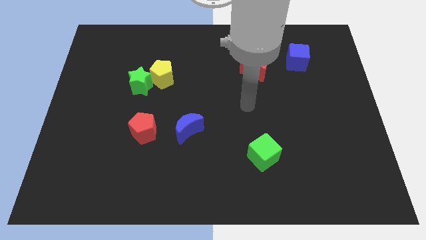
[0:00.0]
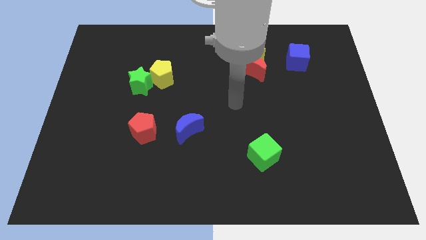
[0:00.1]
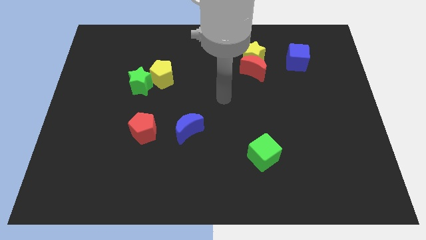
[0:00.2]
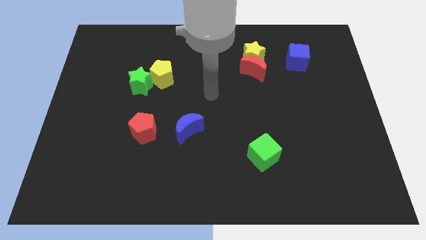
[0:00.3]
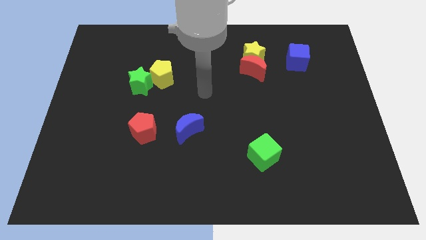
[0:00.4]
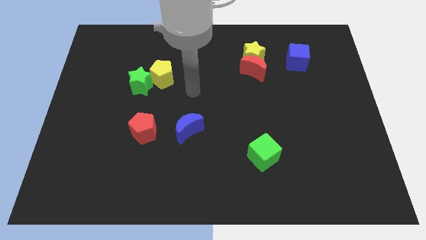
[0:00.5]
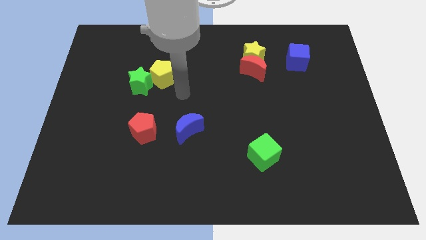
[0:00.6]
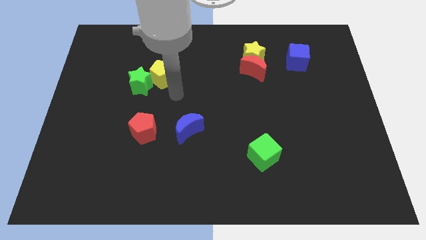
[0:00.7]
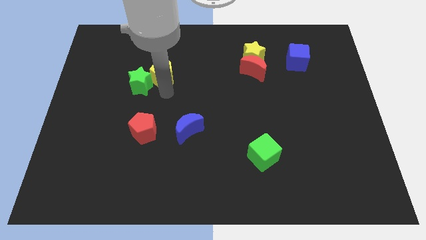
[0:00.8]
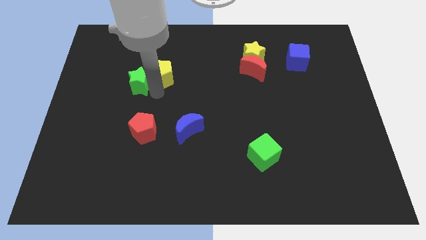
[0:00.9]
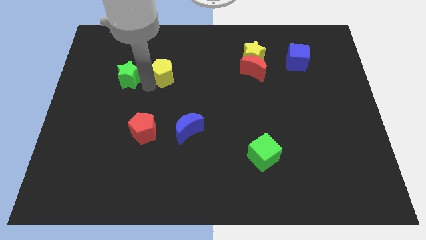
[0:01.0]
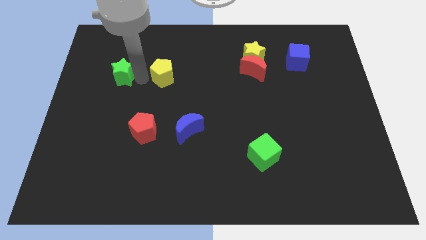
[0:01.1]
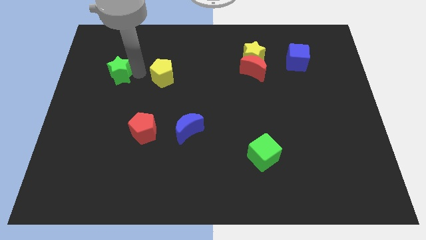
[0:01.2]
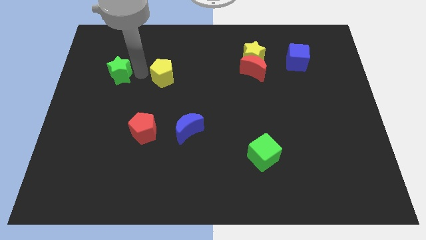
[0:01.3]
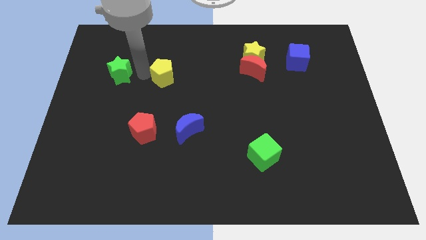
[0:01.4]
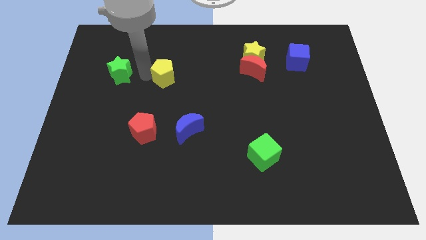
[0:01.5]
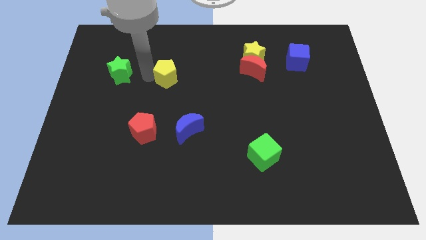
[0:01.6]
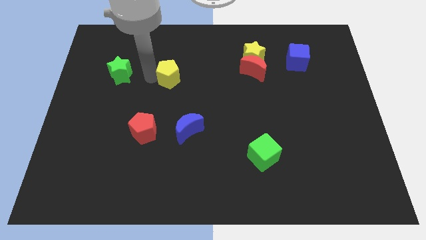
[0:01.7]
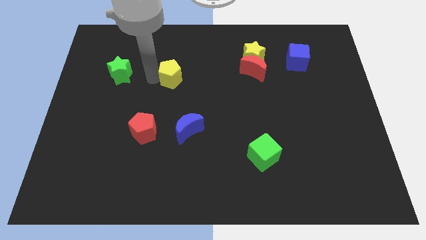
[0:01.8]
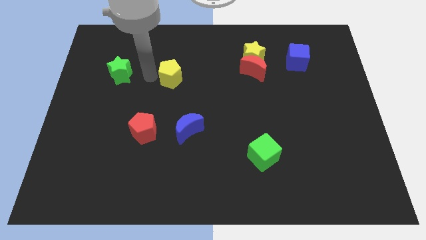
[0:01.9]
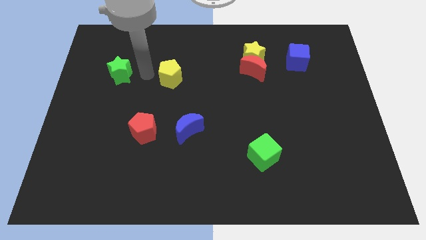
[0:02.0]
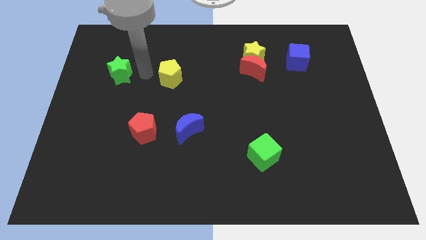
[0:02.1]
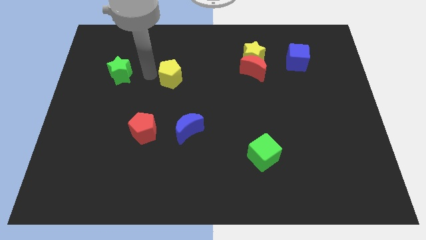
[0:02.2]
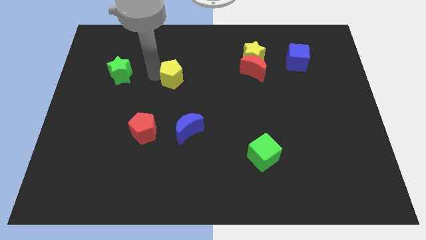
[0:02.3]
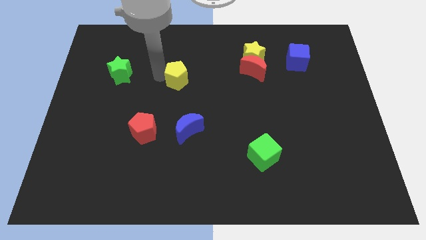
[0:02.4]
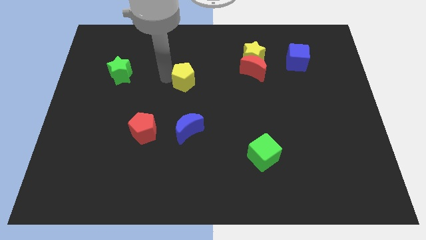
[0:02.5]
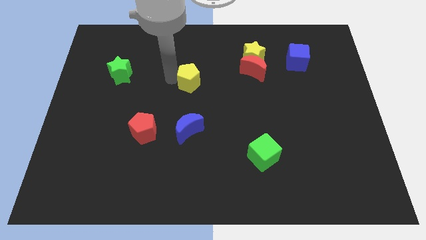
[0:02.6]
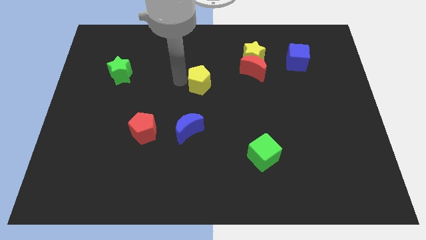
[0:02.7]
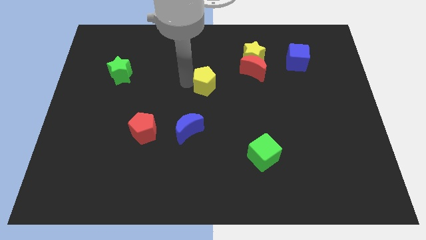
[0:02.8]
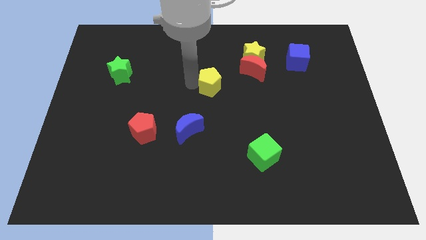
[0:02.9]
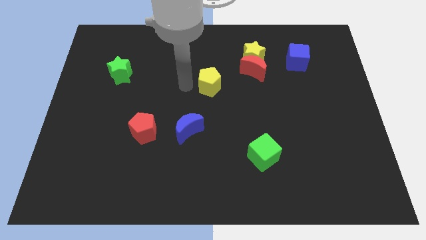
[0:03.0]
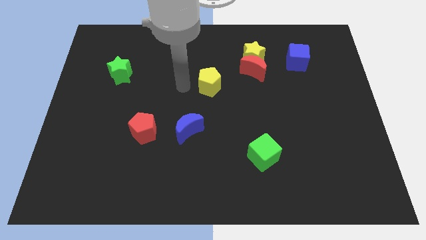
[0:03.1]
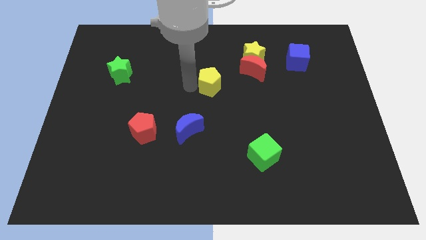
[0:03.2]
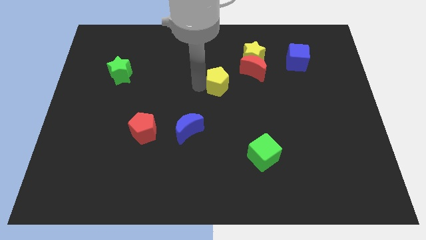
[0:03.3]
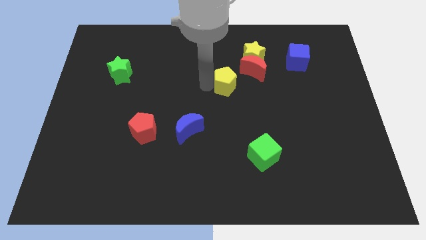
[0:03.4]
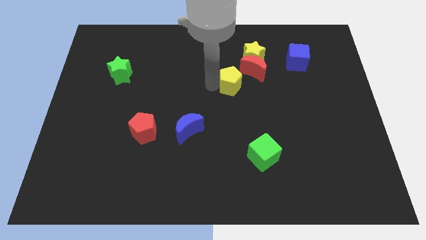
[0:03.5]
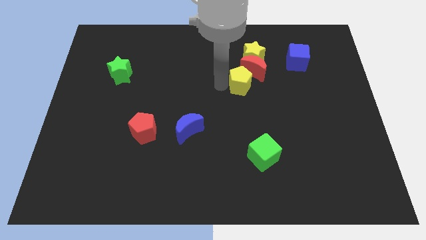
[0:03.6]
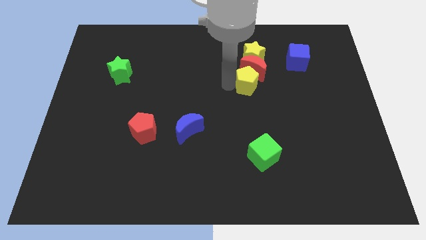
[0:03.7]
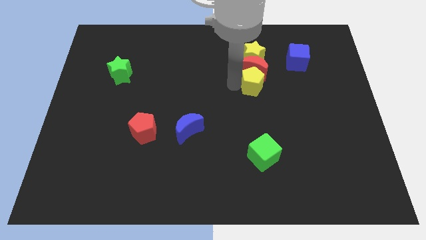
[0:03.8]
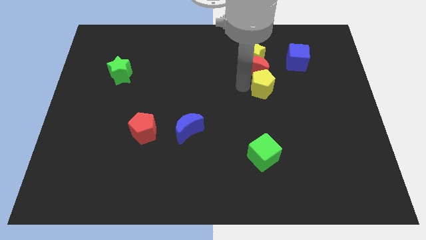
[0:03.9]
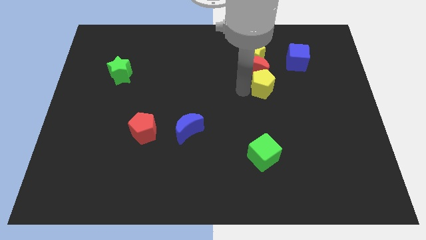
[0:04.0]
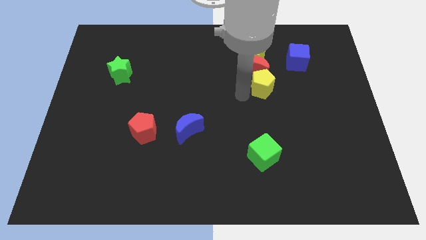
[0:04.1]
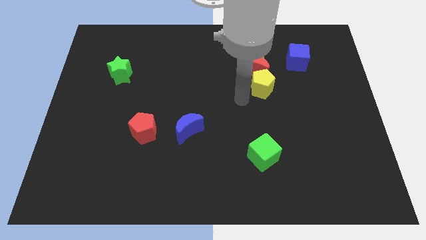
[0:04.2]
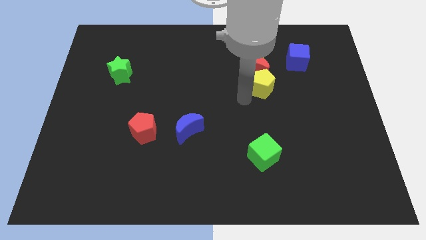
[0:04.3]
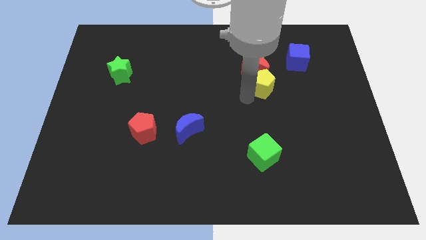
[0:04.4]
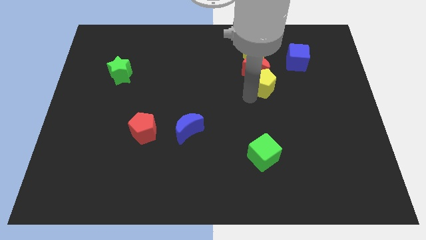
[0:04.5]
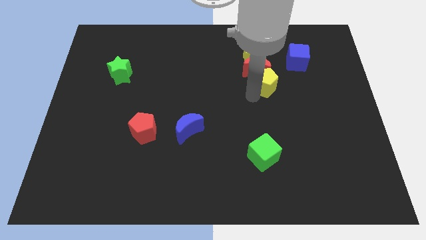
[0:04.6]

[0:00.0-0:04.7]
put the yellow pentagon diagonally down and to the left of the blue cube

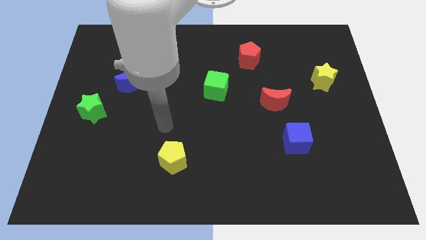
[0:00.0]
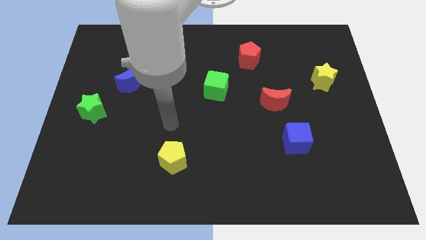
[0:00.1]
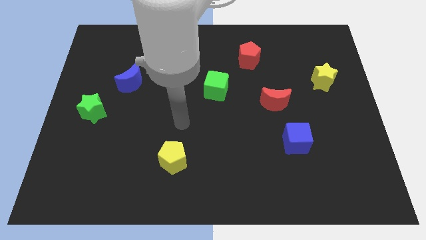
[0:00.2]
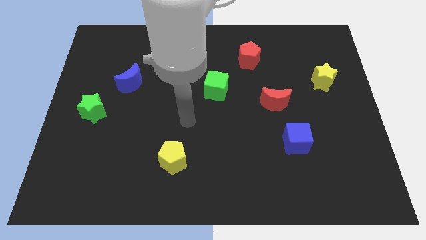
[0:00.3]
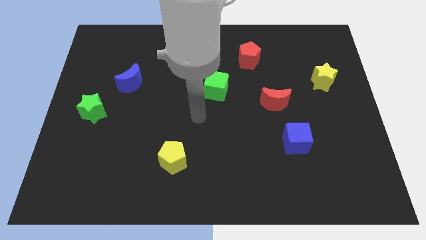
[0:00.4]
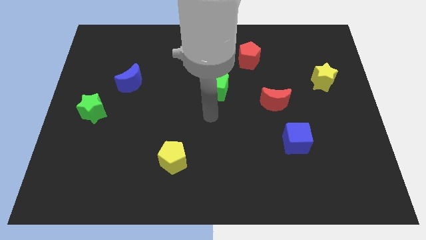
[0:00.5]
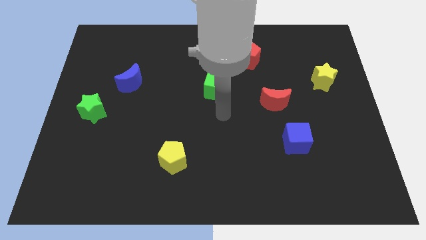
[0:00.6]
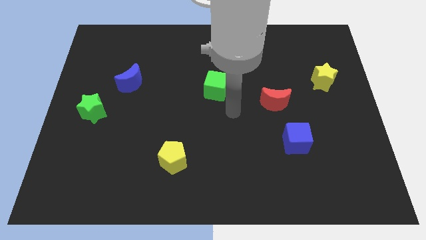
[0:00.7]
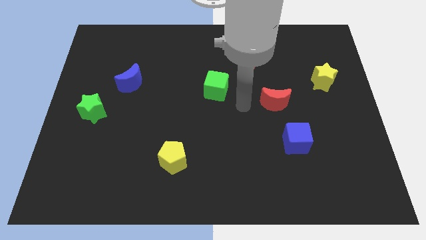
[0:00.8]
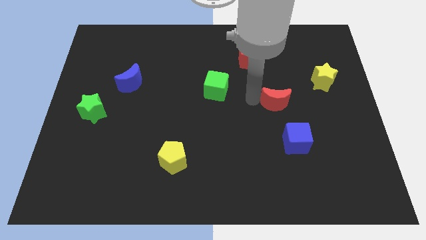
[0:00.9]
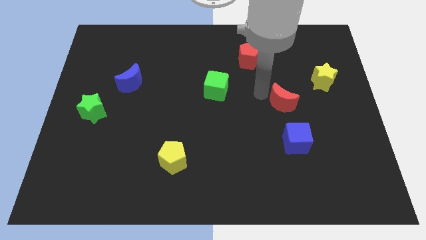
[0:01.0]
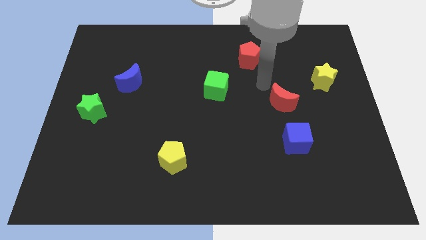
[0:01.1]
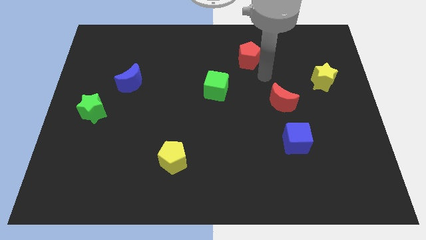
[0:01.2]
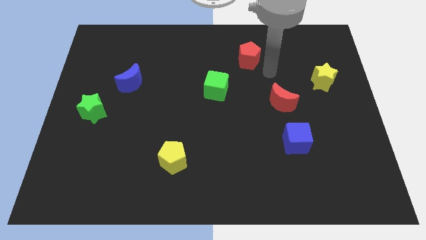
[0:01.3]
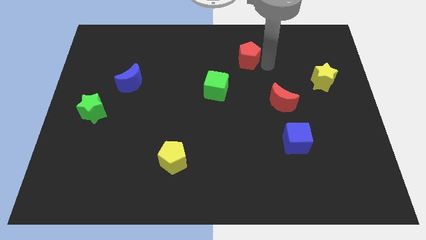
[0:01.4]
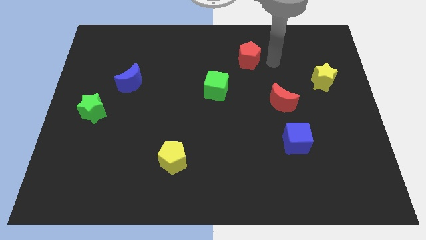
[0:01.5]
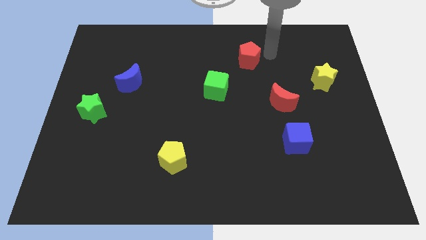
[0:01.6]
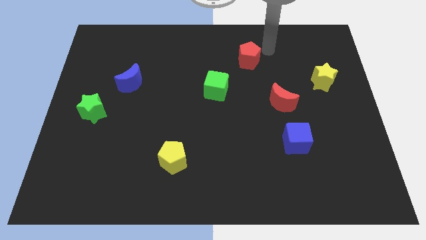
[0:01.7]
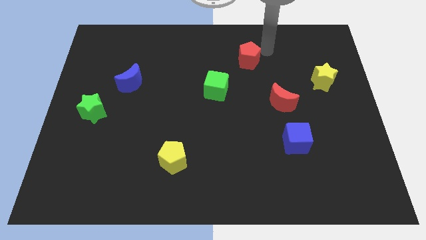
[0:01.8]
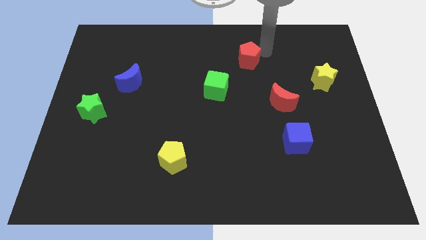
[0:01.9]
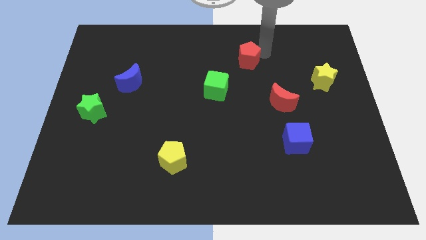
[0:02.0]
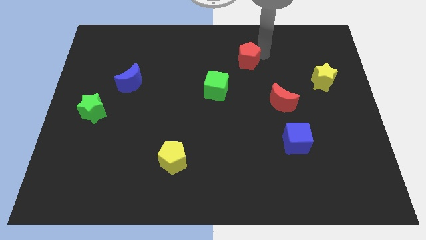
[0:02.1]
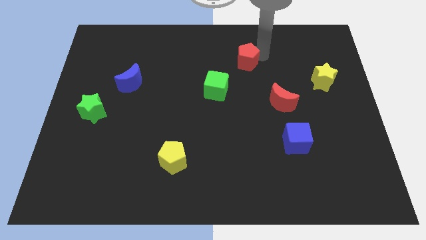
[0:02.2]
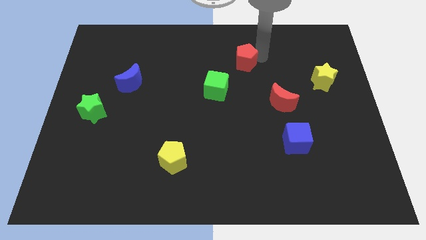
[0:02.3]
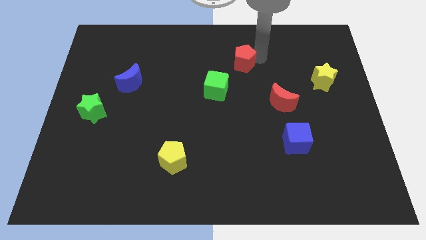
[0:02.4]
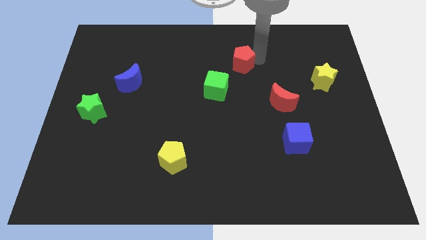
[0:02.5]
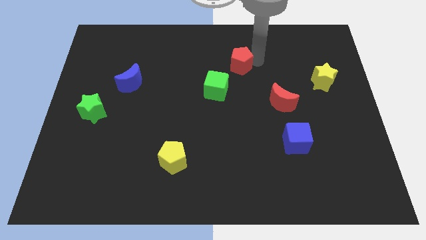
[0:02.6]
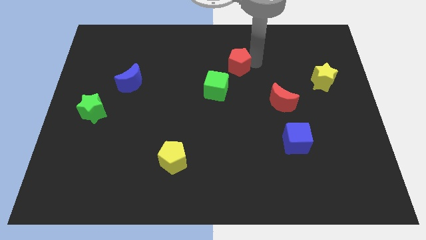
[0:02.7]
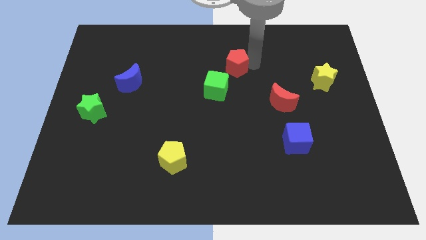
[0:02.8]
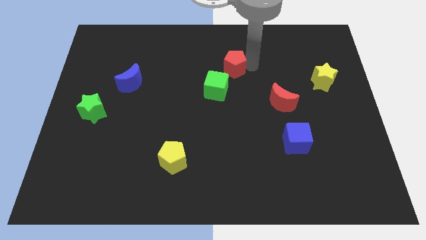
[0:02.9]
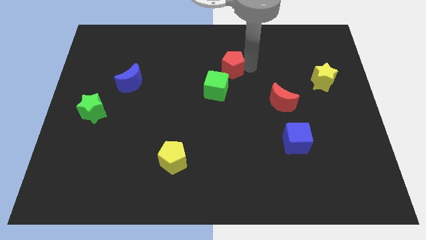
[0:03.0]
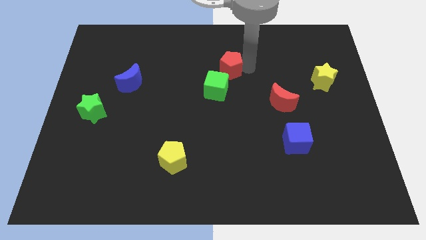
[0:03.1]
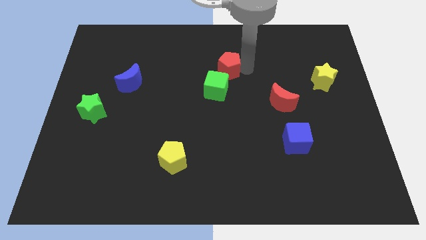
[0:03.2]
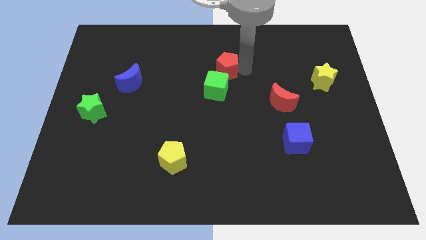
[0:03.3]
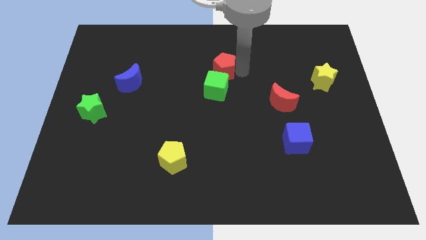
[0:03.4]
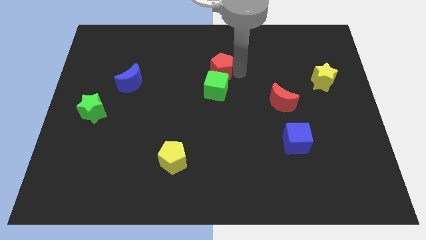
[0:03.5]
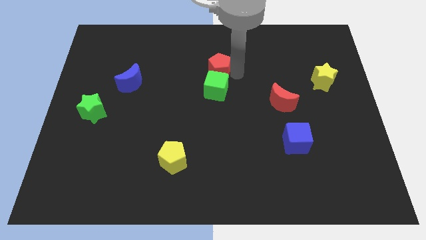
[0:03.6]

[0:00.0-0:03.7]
move the red pentagon diagonally up and to the left of the green cube
